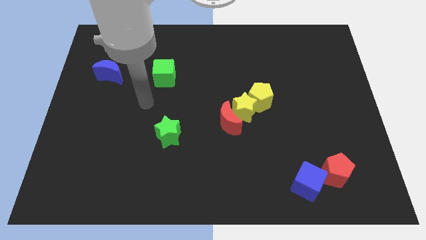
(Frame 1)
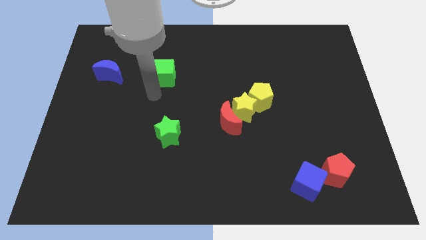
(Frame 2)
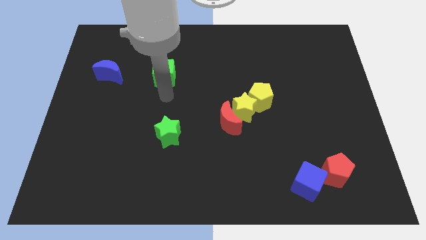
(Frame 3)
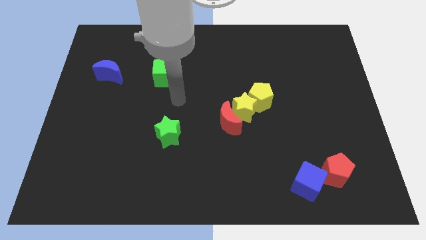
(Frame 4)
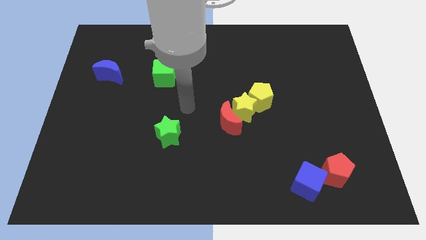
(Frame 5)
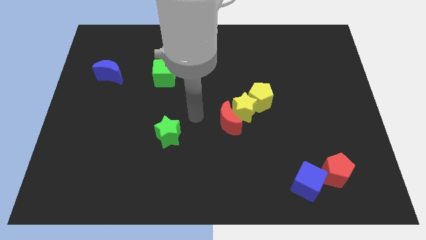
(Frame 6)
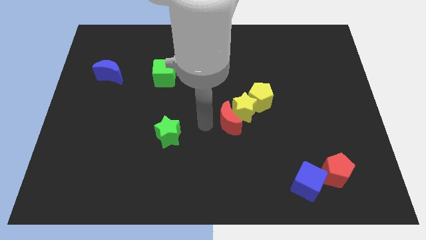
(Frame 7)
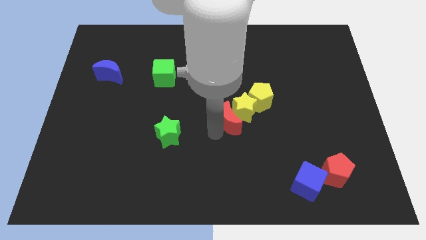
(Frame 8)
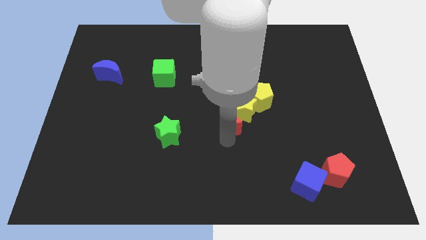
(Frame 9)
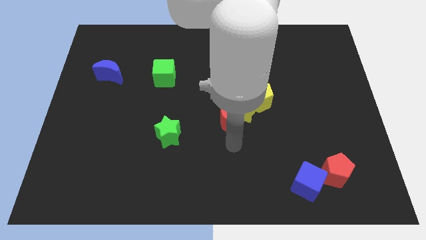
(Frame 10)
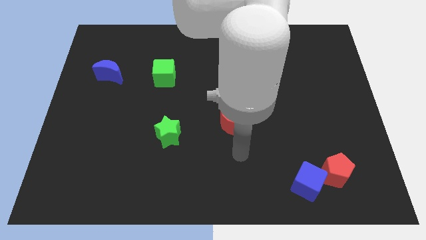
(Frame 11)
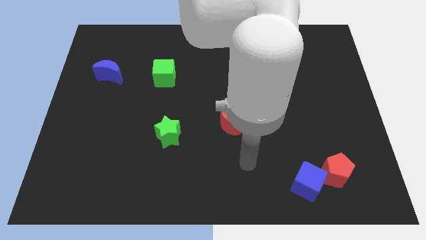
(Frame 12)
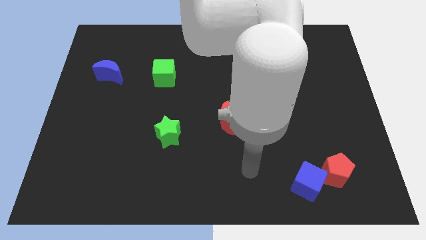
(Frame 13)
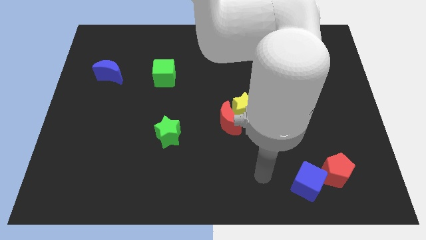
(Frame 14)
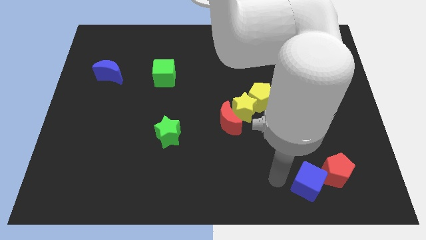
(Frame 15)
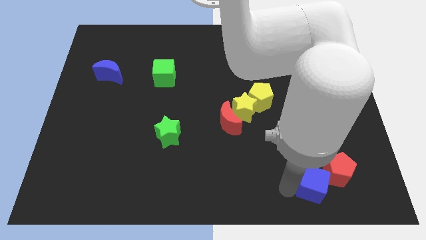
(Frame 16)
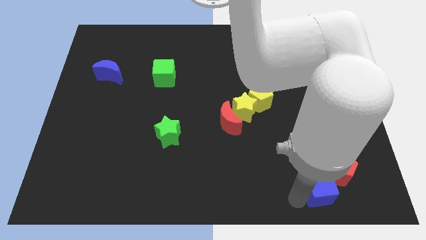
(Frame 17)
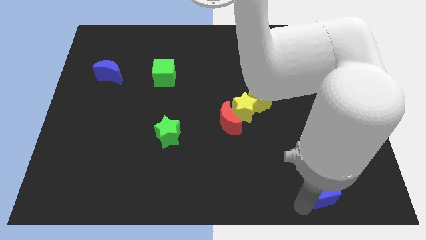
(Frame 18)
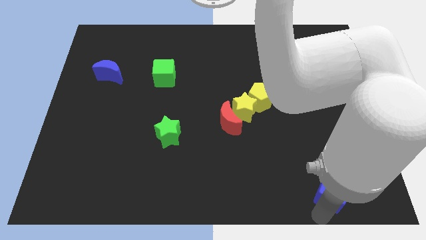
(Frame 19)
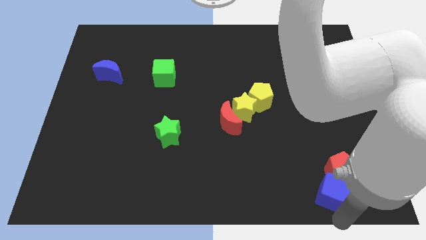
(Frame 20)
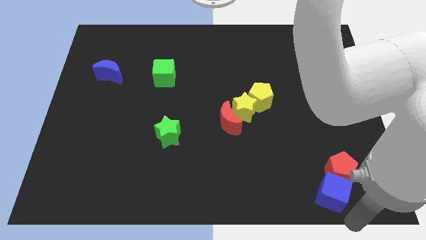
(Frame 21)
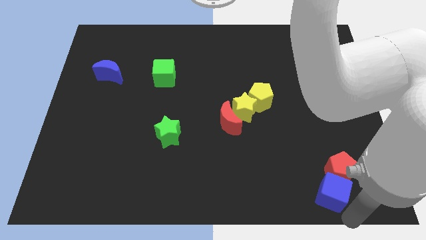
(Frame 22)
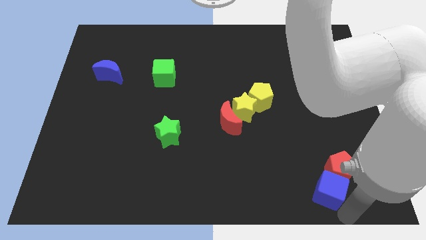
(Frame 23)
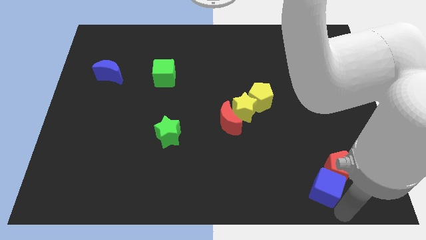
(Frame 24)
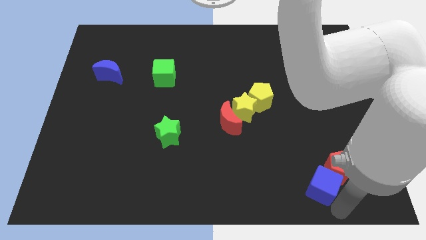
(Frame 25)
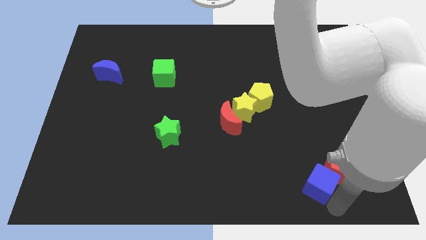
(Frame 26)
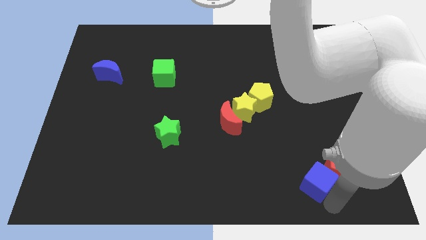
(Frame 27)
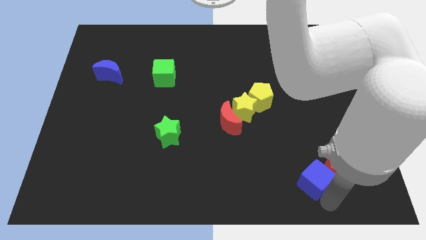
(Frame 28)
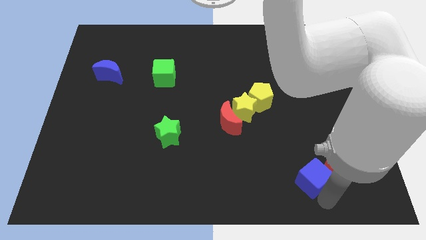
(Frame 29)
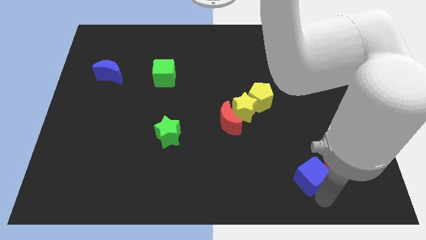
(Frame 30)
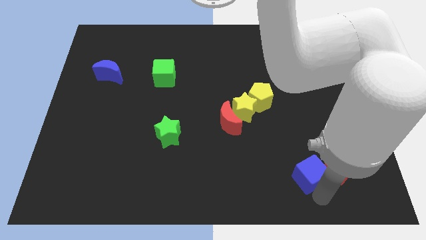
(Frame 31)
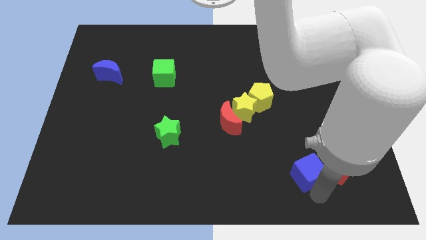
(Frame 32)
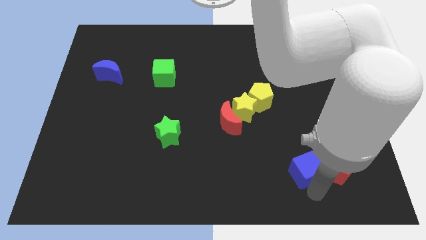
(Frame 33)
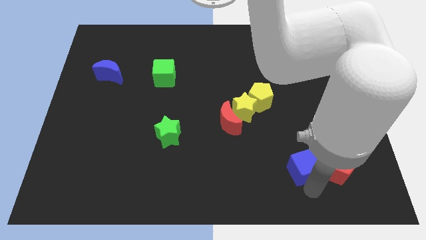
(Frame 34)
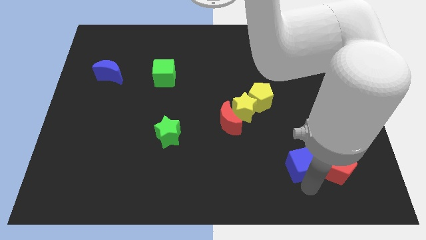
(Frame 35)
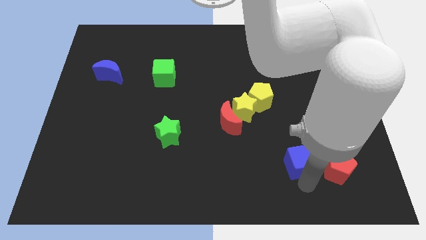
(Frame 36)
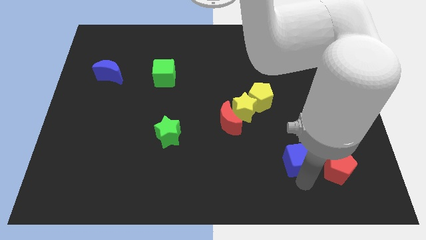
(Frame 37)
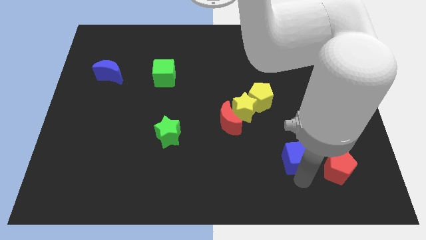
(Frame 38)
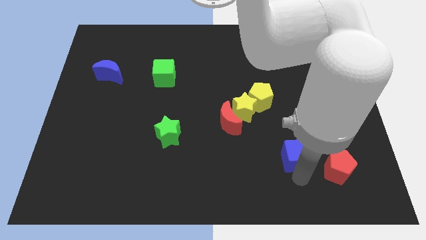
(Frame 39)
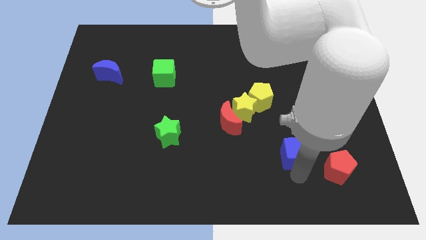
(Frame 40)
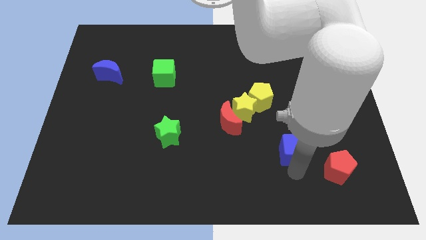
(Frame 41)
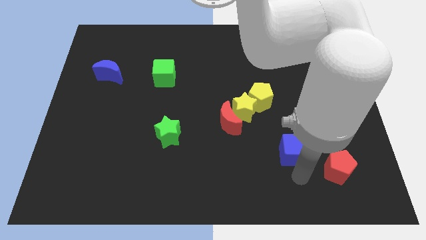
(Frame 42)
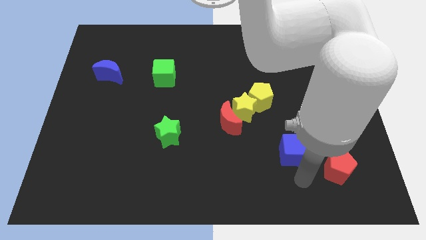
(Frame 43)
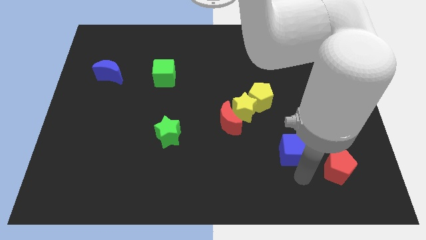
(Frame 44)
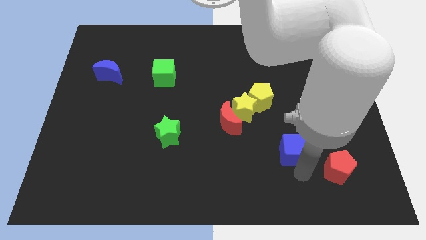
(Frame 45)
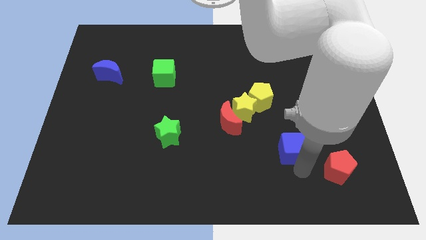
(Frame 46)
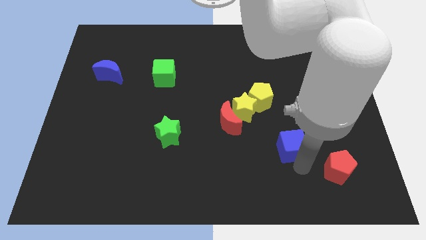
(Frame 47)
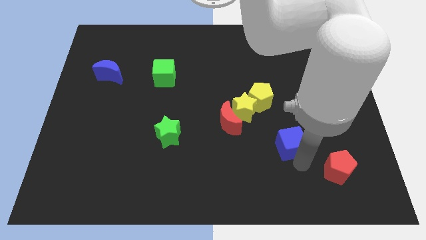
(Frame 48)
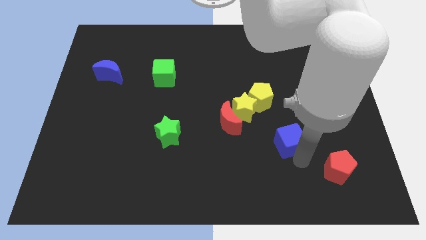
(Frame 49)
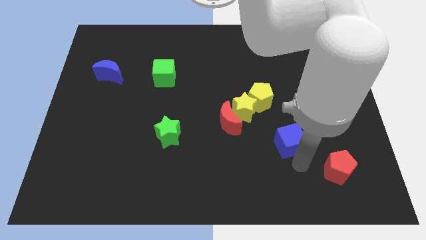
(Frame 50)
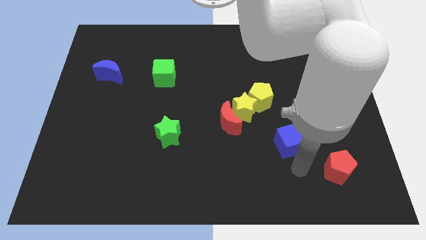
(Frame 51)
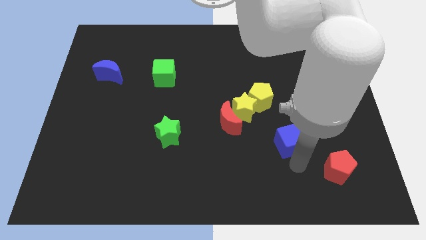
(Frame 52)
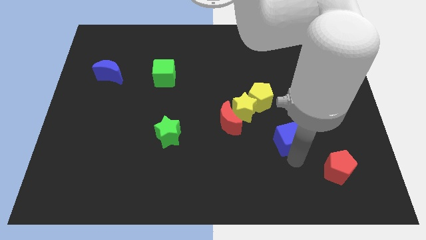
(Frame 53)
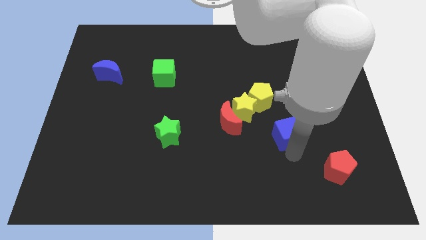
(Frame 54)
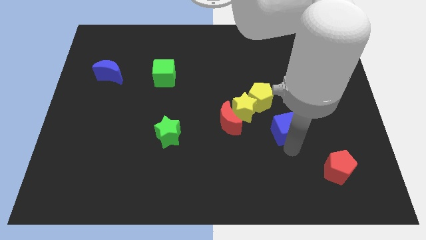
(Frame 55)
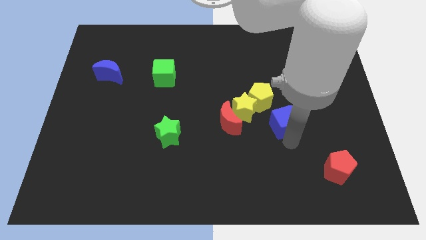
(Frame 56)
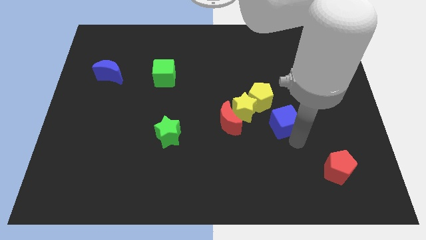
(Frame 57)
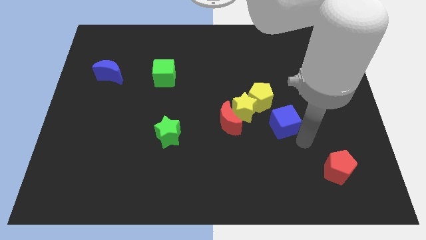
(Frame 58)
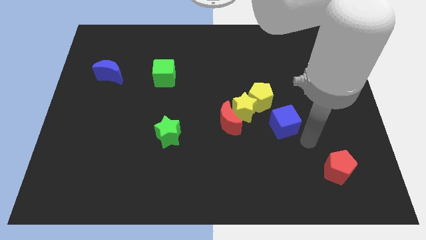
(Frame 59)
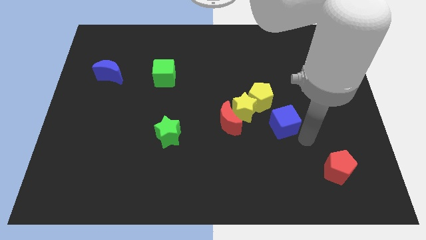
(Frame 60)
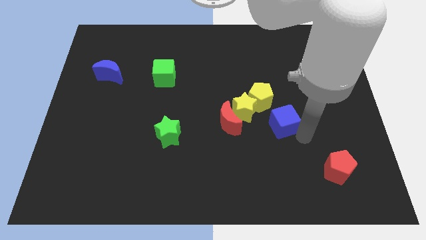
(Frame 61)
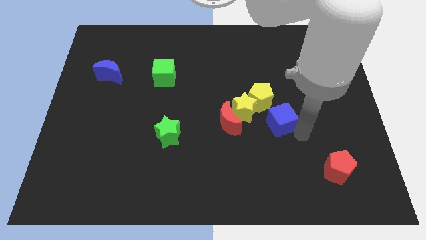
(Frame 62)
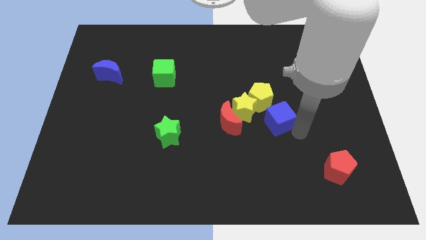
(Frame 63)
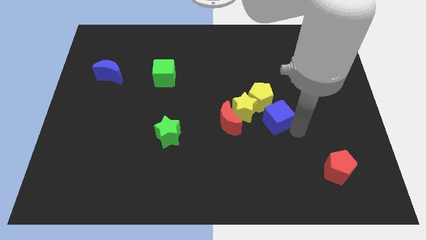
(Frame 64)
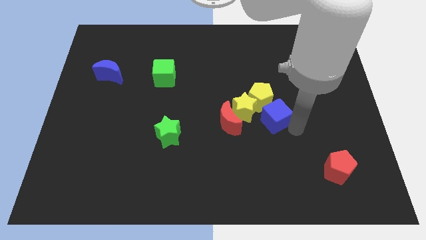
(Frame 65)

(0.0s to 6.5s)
move the blue cube towards the yellow pentagon

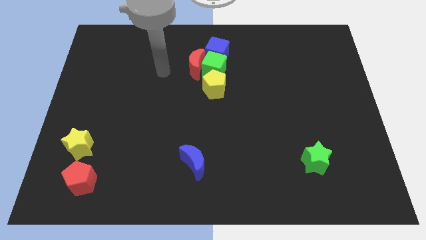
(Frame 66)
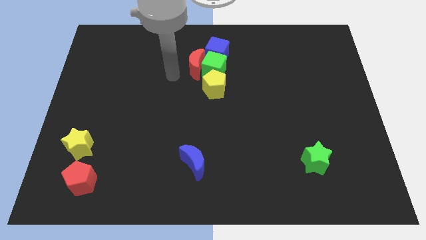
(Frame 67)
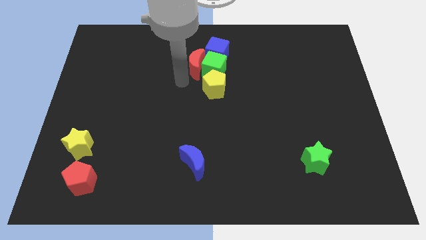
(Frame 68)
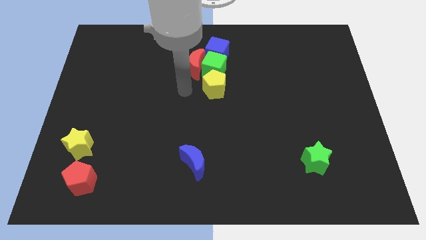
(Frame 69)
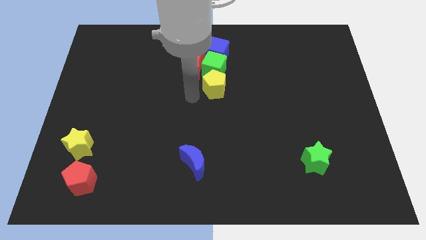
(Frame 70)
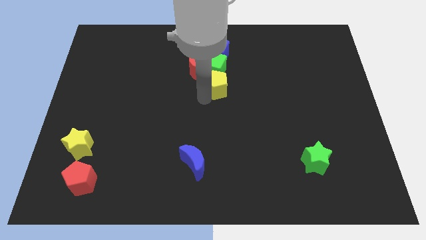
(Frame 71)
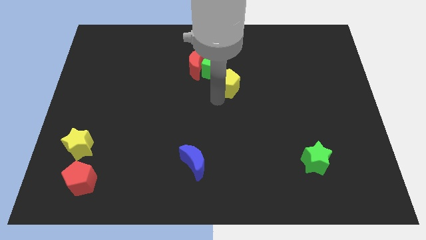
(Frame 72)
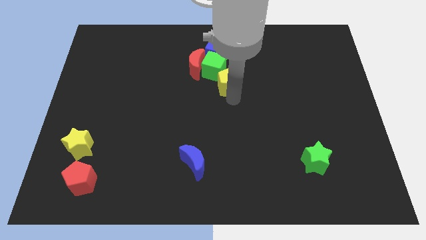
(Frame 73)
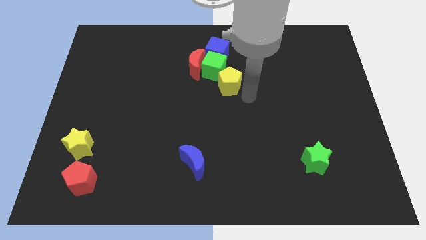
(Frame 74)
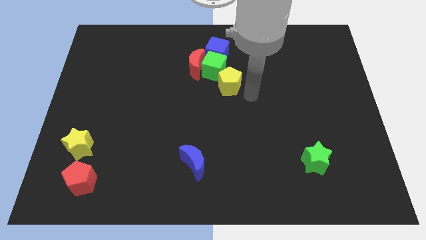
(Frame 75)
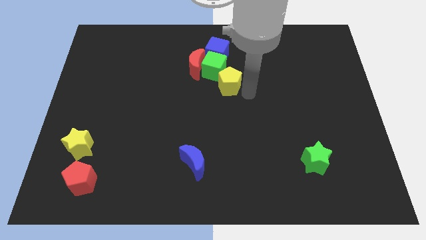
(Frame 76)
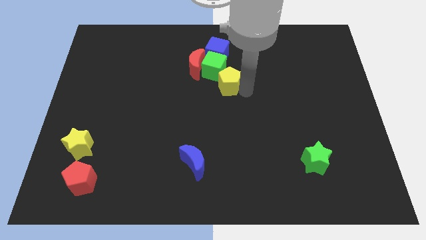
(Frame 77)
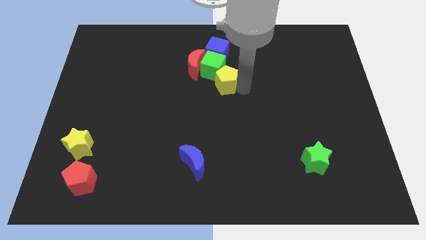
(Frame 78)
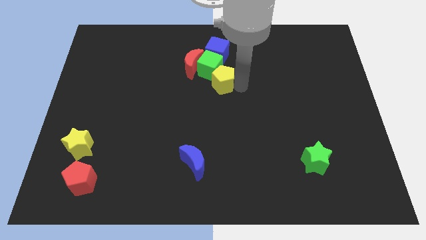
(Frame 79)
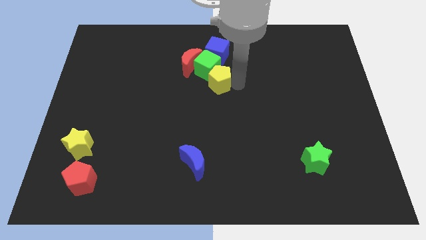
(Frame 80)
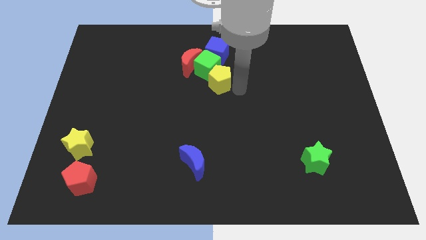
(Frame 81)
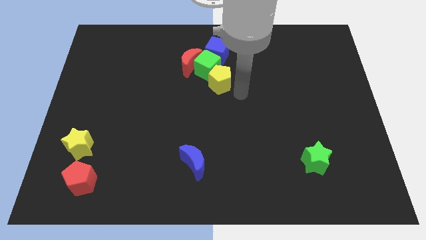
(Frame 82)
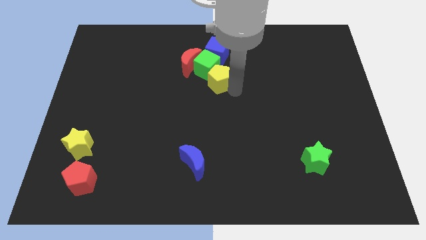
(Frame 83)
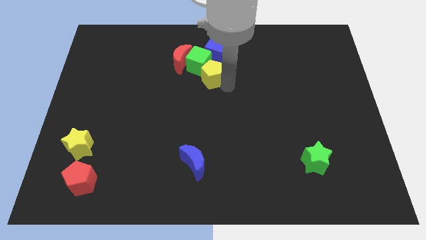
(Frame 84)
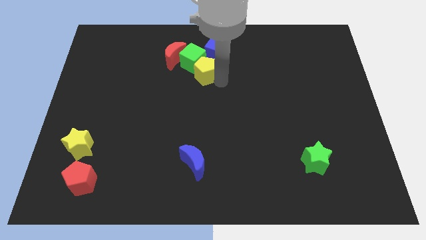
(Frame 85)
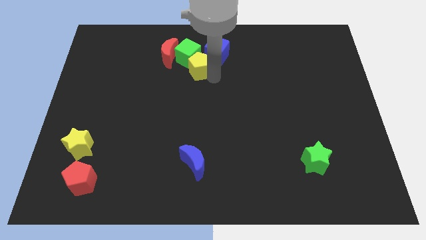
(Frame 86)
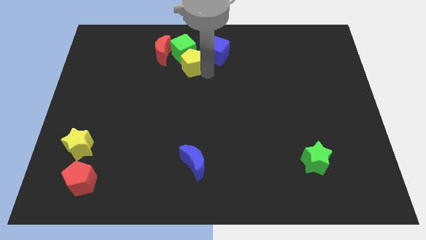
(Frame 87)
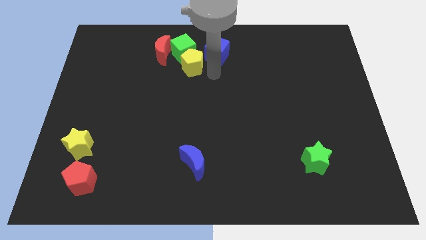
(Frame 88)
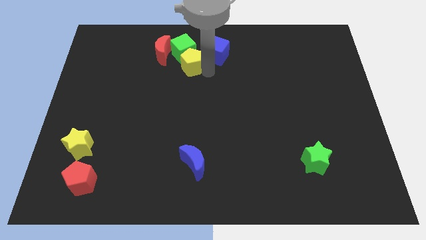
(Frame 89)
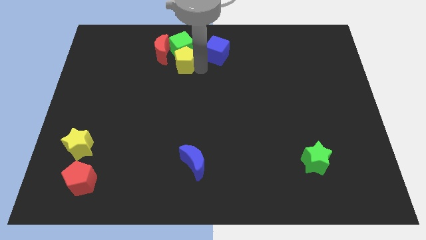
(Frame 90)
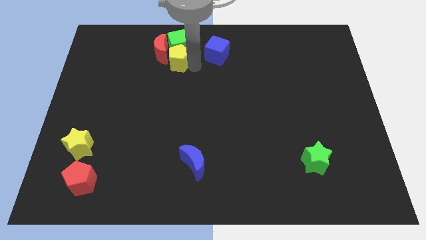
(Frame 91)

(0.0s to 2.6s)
push the yellow pentagon towards the red moon
